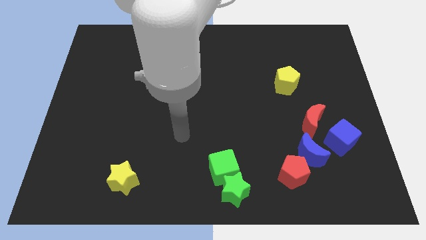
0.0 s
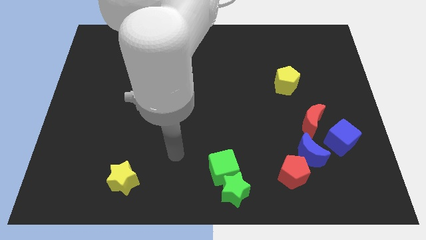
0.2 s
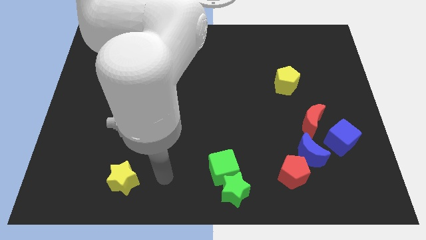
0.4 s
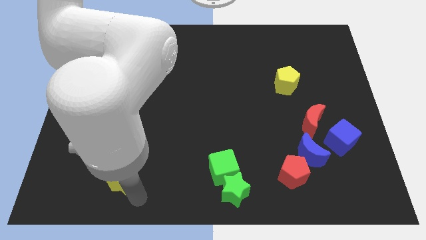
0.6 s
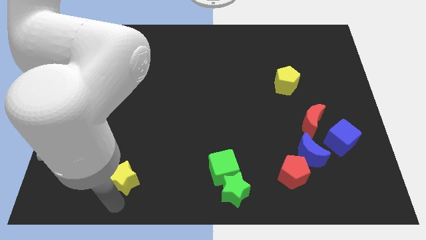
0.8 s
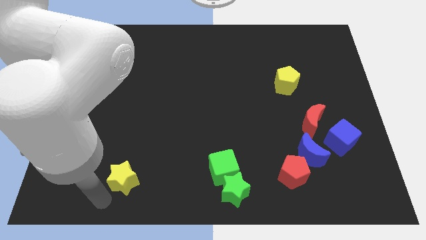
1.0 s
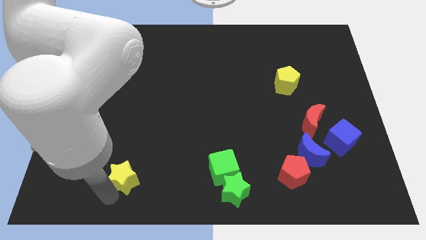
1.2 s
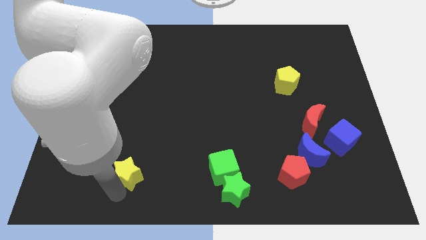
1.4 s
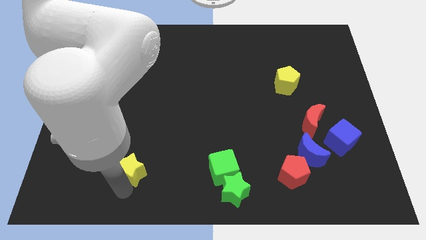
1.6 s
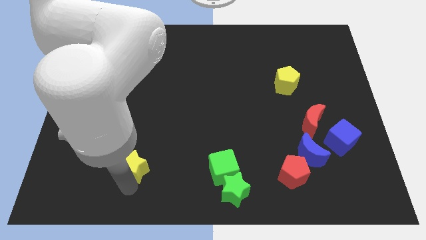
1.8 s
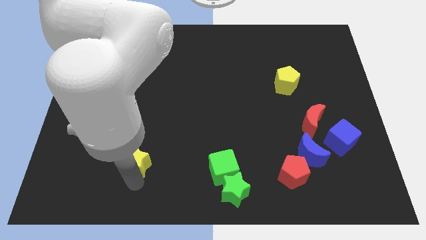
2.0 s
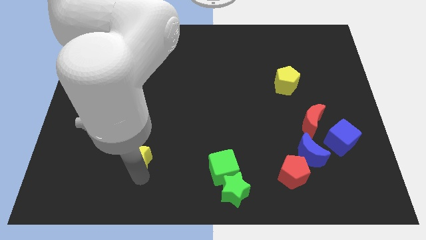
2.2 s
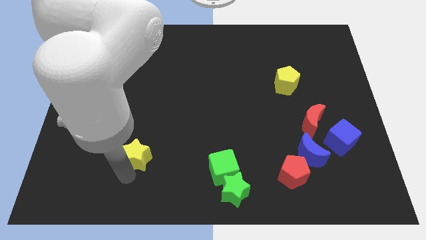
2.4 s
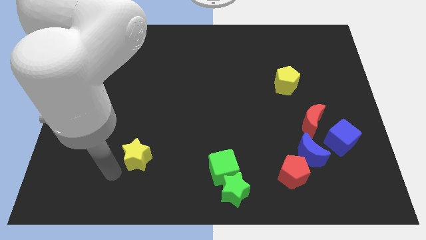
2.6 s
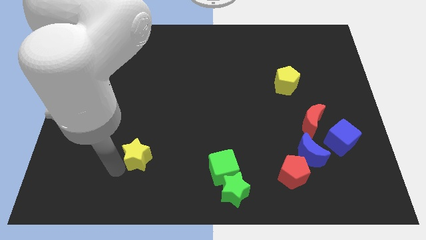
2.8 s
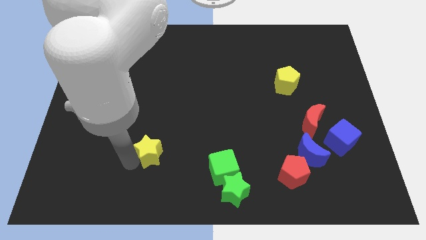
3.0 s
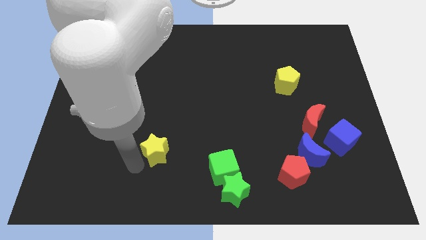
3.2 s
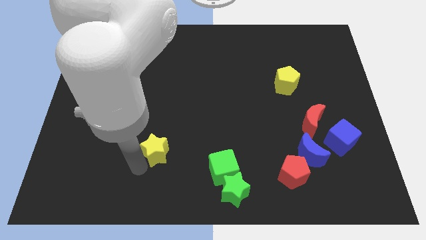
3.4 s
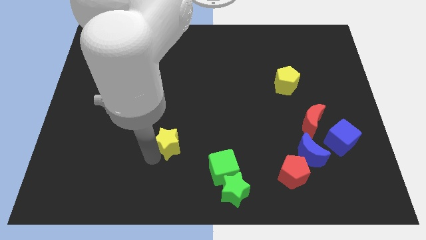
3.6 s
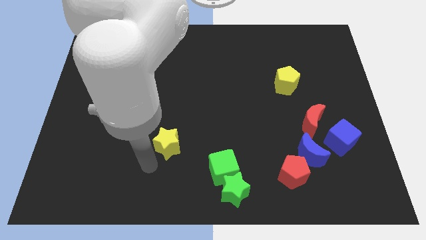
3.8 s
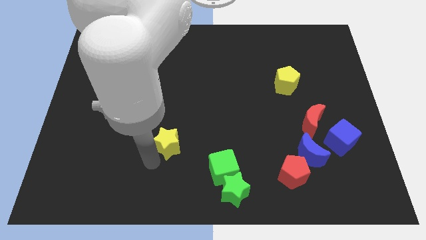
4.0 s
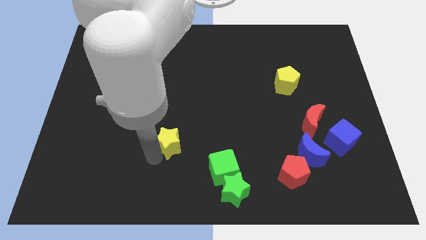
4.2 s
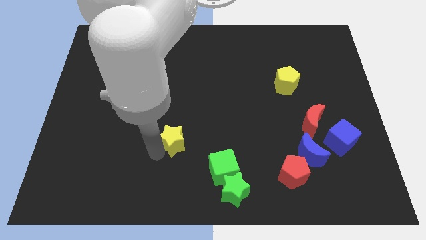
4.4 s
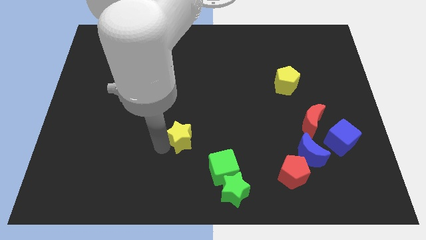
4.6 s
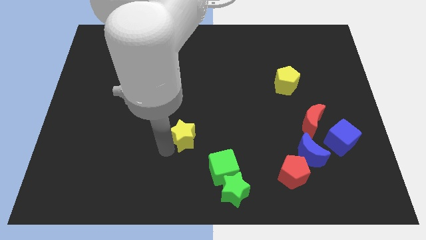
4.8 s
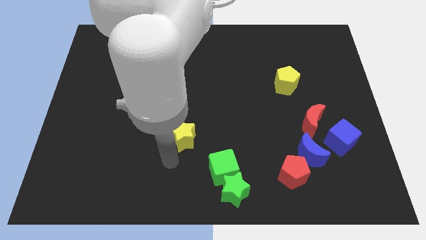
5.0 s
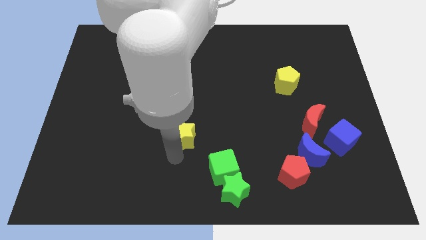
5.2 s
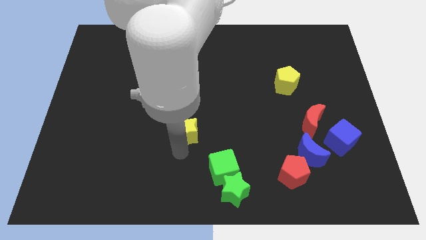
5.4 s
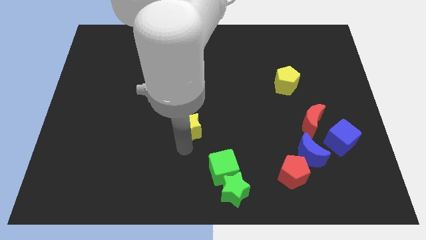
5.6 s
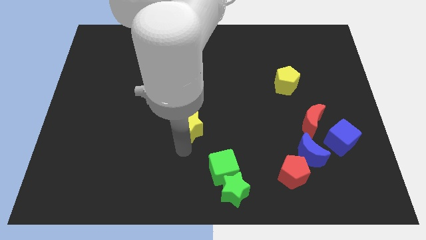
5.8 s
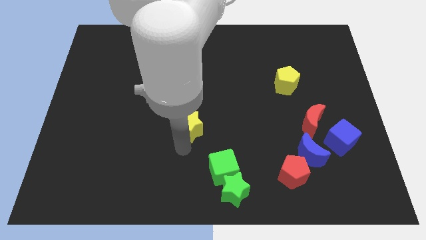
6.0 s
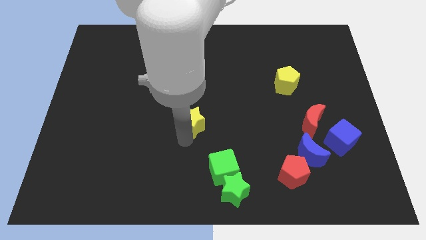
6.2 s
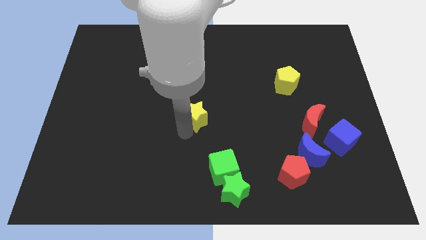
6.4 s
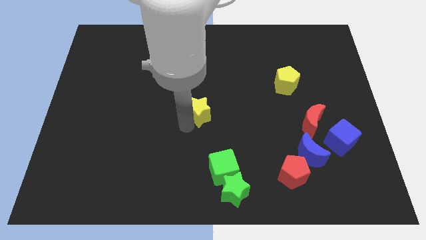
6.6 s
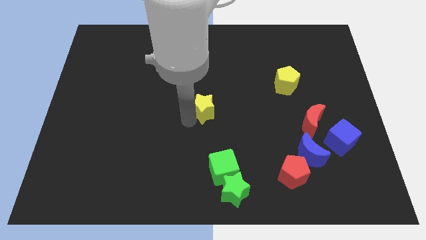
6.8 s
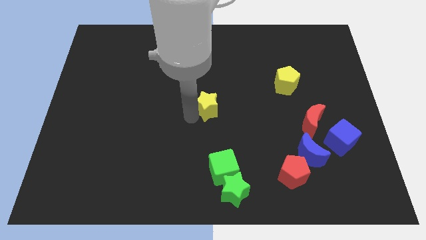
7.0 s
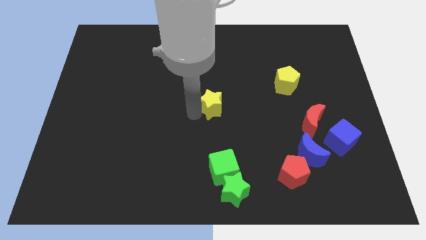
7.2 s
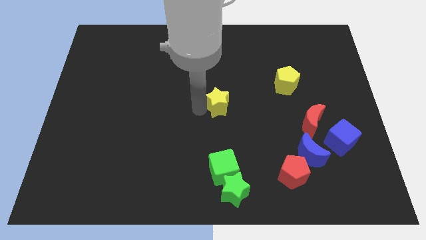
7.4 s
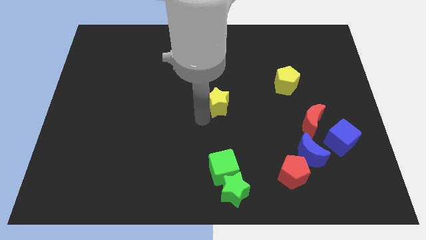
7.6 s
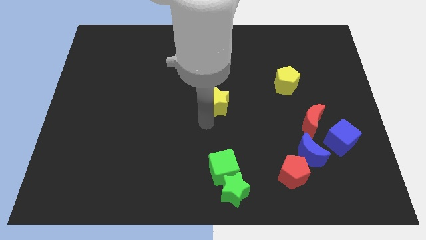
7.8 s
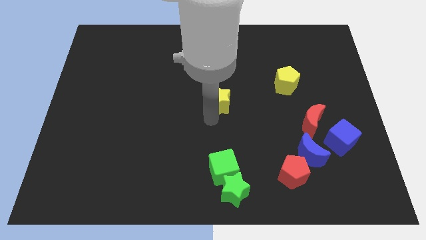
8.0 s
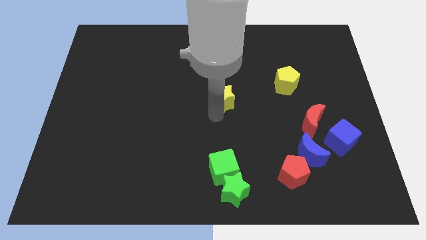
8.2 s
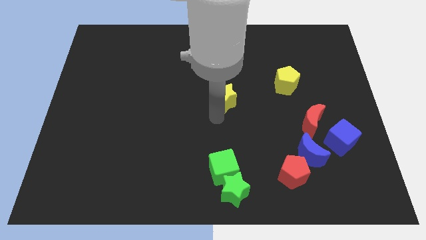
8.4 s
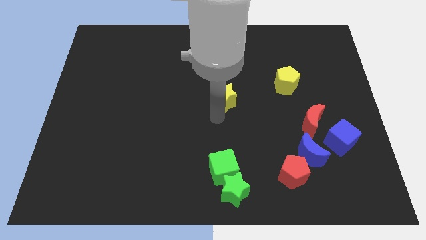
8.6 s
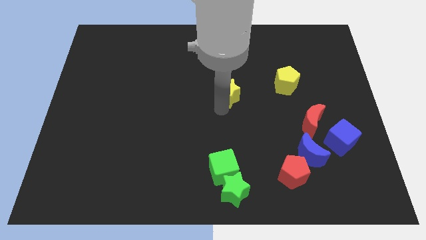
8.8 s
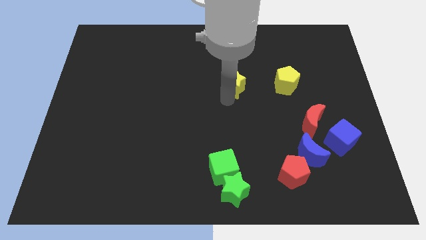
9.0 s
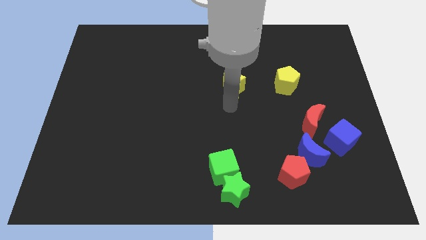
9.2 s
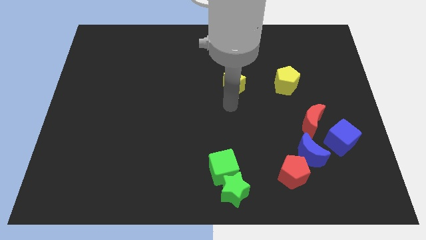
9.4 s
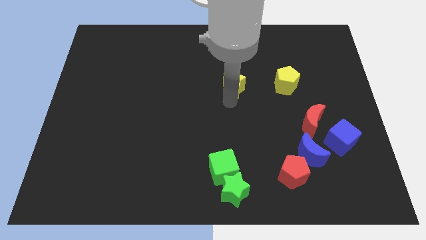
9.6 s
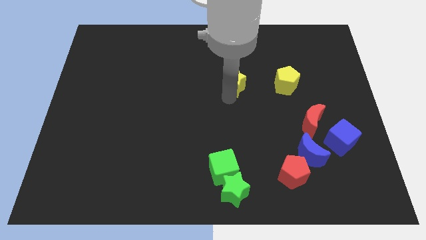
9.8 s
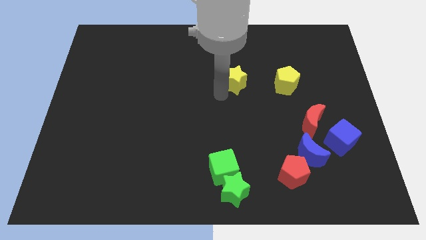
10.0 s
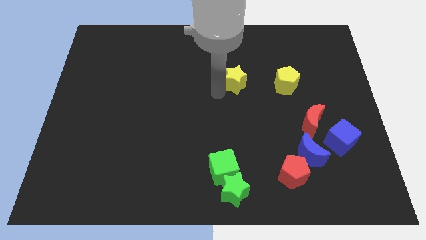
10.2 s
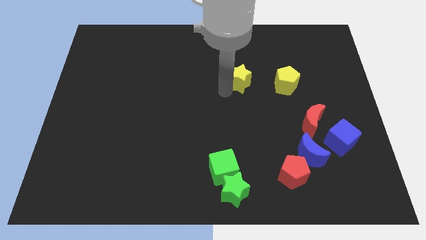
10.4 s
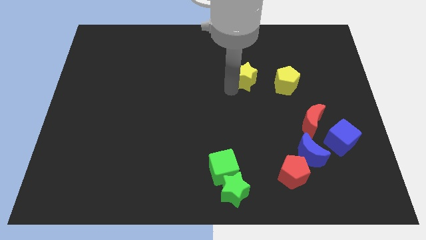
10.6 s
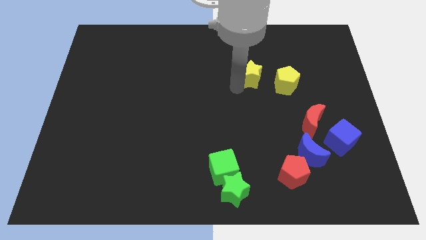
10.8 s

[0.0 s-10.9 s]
slide the yellow star diagonally up and to the left of the yellow pentagon

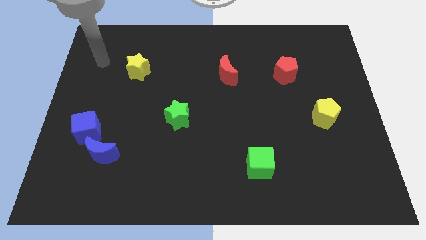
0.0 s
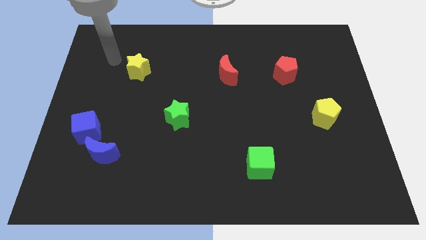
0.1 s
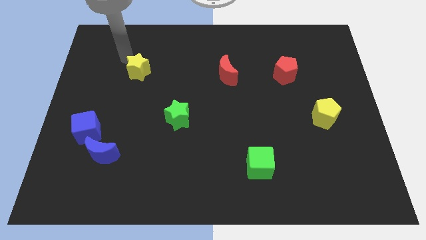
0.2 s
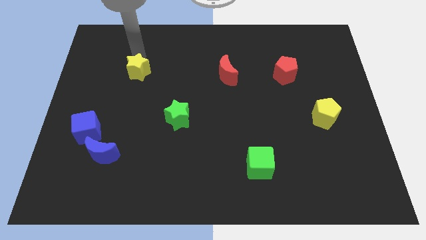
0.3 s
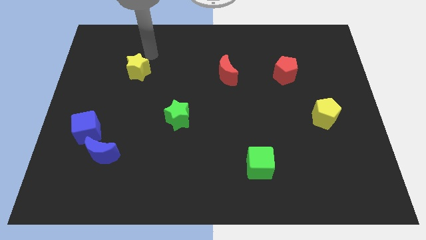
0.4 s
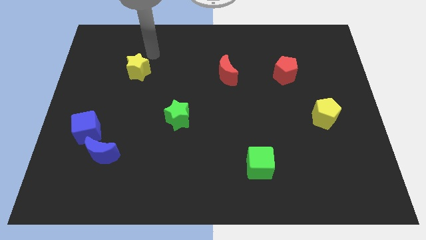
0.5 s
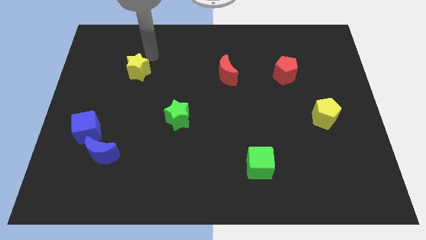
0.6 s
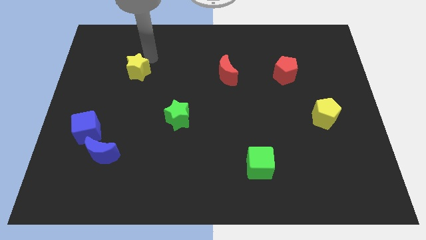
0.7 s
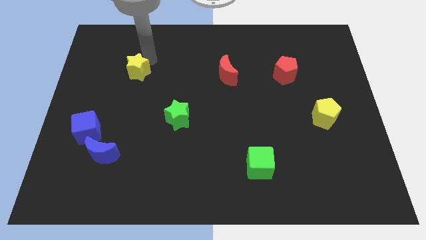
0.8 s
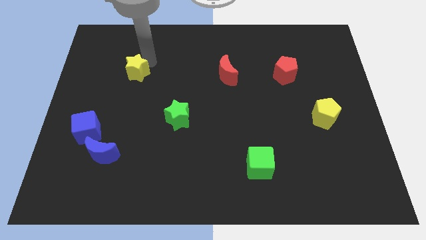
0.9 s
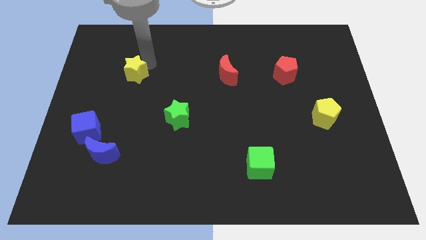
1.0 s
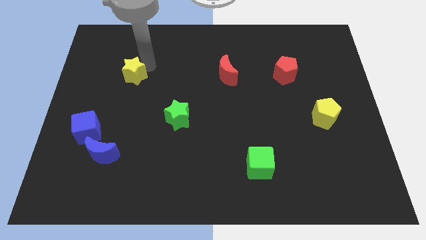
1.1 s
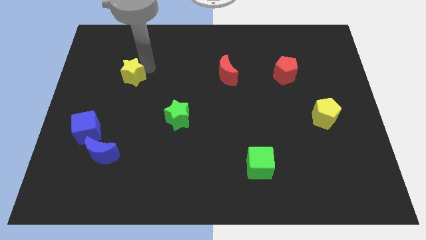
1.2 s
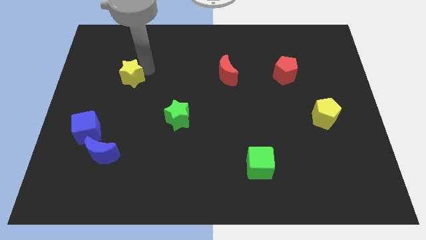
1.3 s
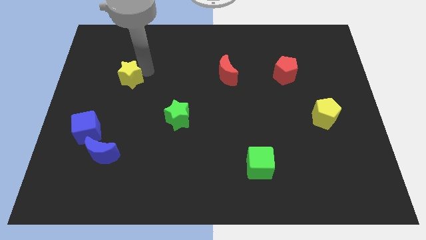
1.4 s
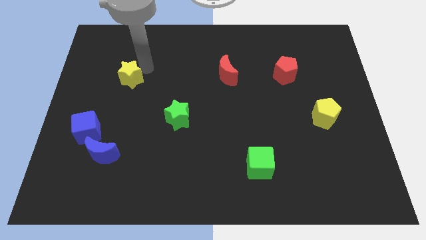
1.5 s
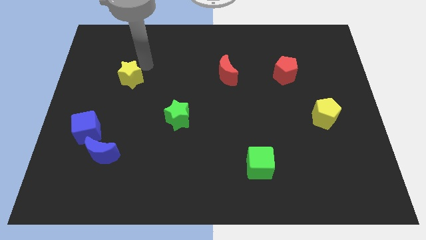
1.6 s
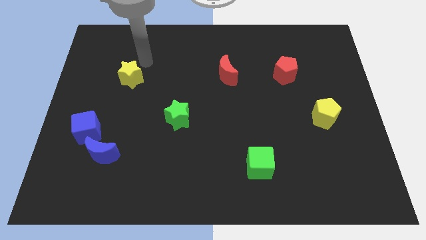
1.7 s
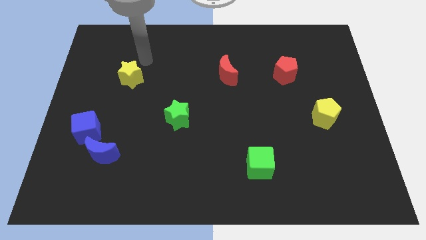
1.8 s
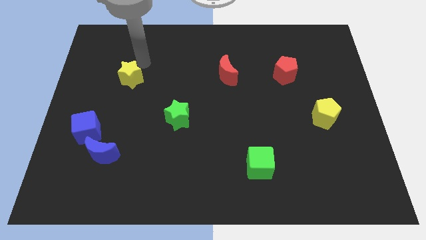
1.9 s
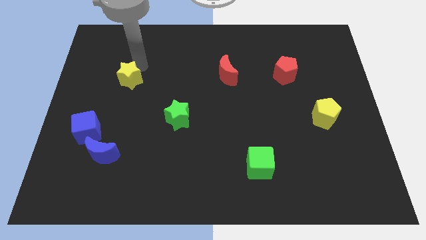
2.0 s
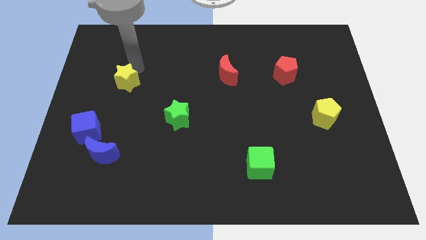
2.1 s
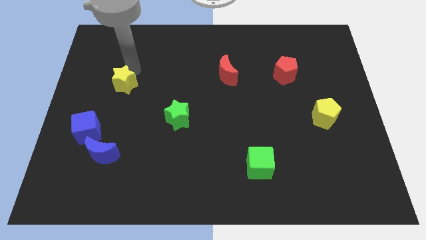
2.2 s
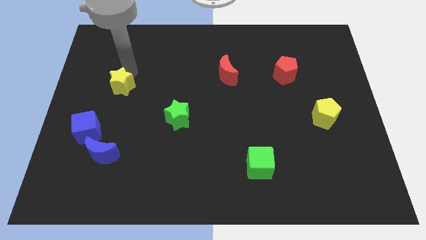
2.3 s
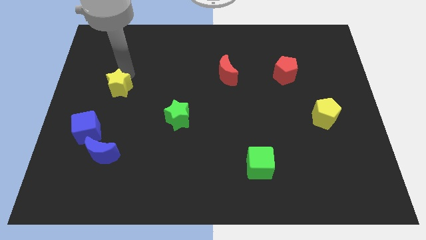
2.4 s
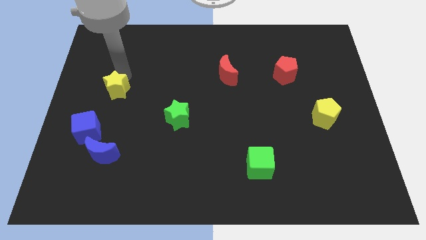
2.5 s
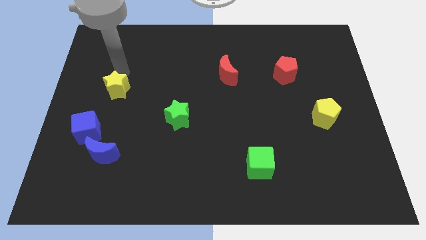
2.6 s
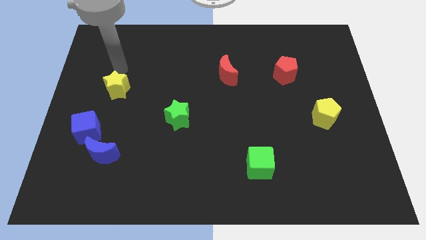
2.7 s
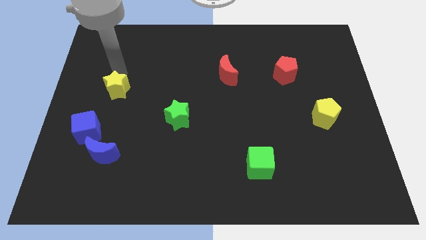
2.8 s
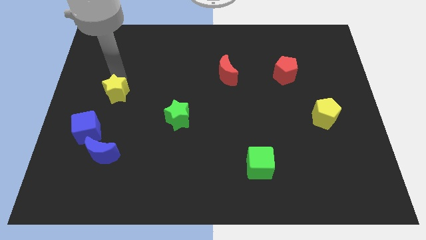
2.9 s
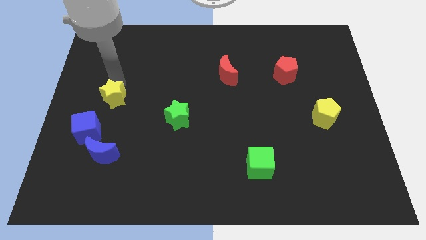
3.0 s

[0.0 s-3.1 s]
move the yellow star to the top right of the blue cube

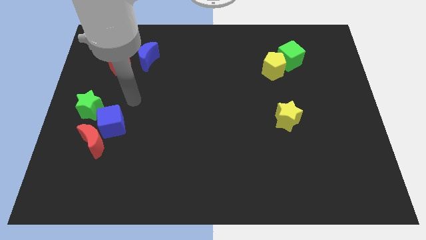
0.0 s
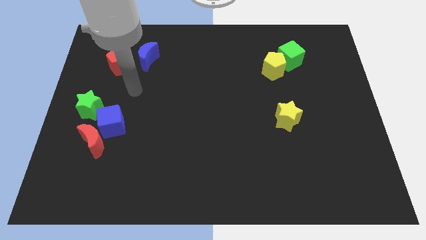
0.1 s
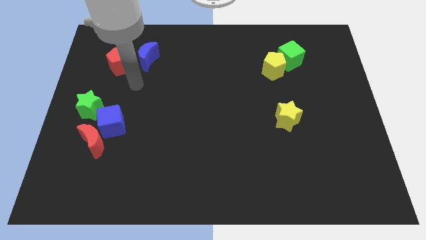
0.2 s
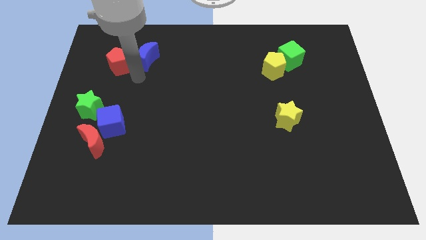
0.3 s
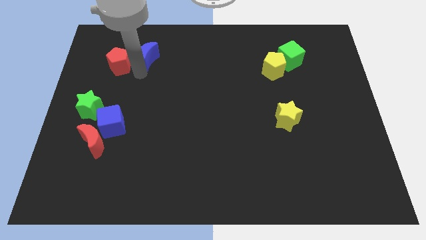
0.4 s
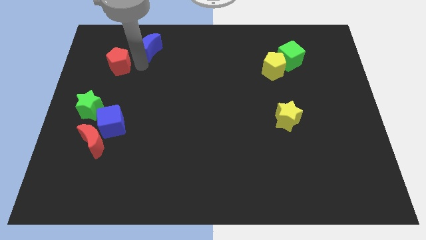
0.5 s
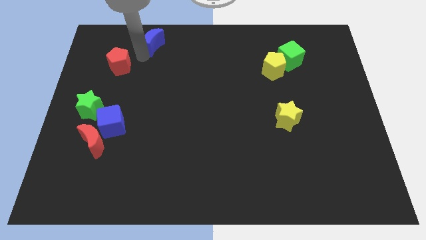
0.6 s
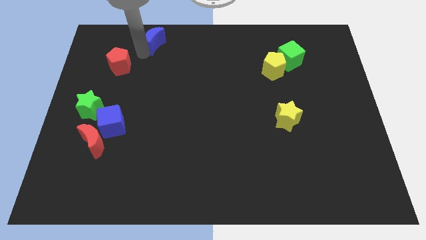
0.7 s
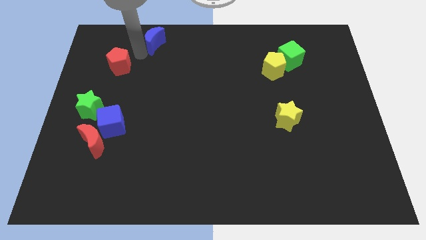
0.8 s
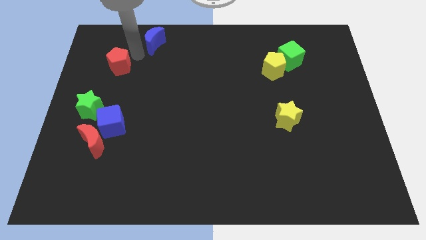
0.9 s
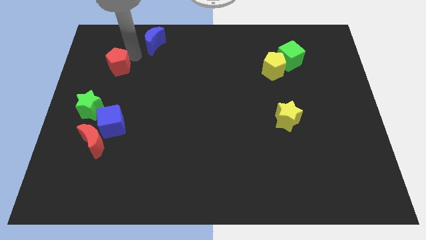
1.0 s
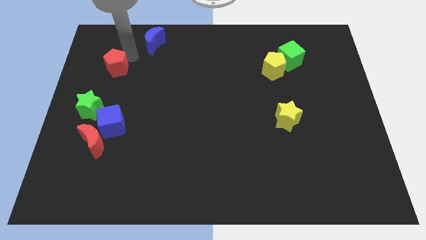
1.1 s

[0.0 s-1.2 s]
slide the red pentagon to the top side of the green star
